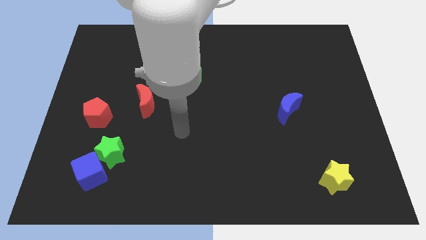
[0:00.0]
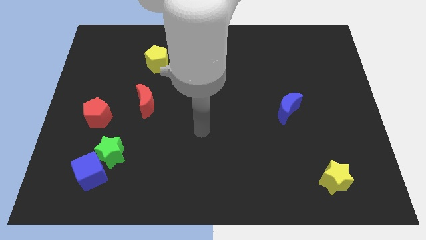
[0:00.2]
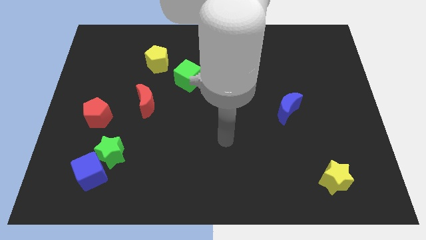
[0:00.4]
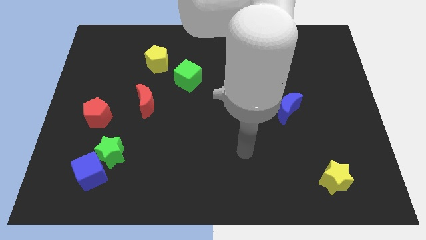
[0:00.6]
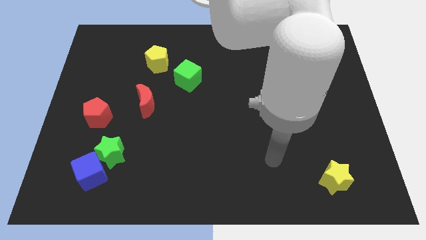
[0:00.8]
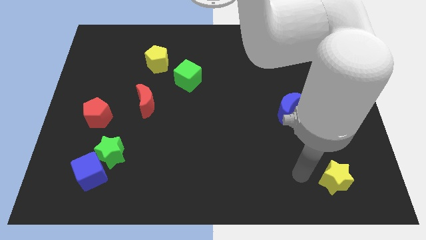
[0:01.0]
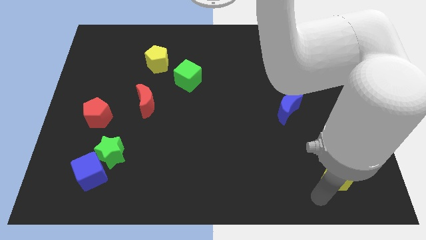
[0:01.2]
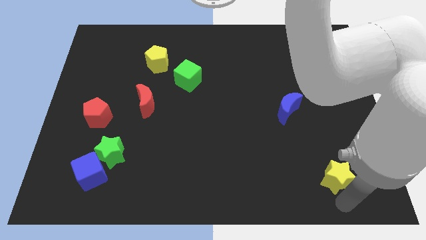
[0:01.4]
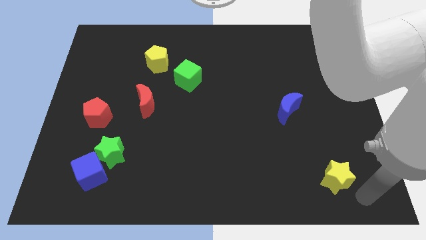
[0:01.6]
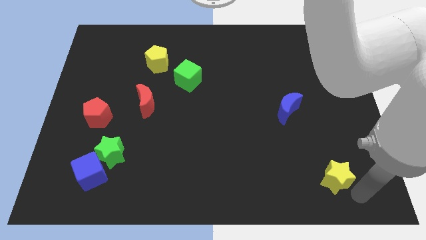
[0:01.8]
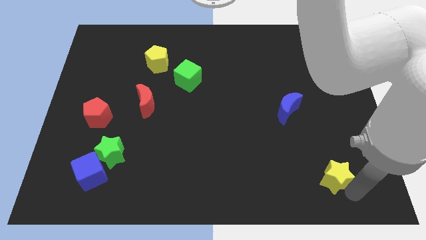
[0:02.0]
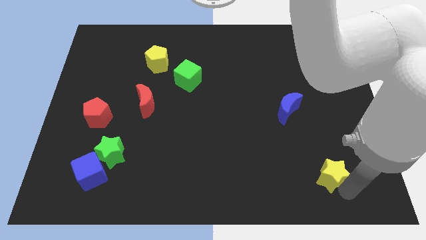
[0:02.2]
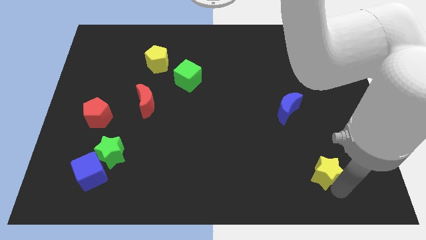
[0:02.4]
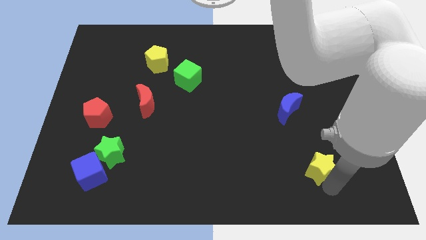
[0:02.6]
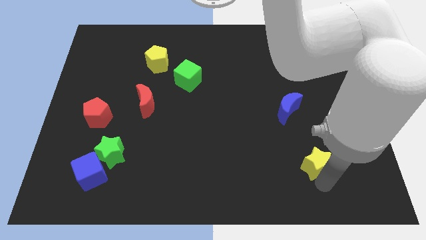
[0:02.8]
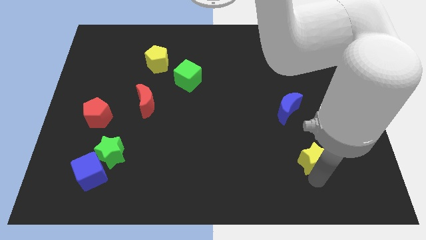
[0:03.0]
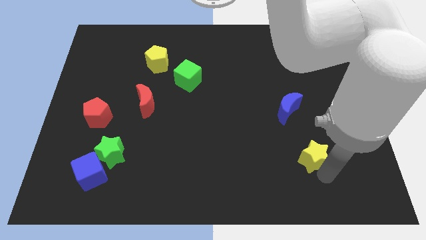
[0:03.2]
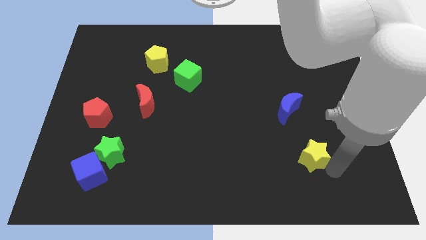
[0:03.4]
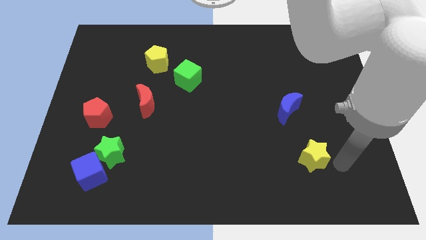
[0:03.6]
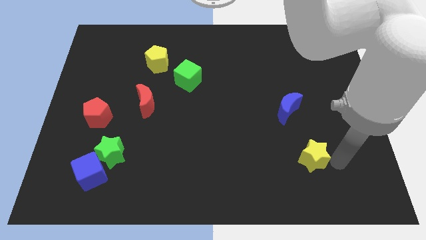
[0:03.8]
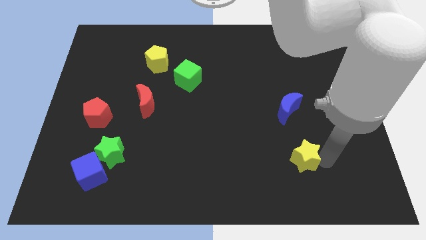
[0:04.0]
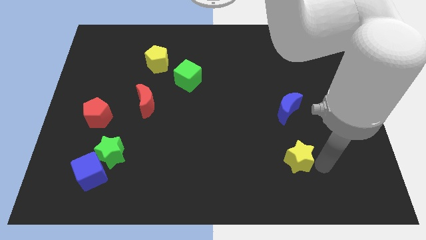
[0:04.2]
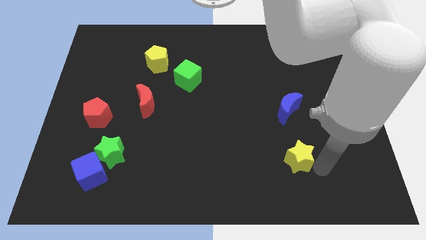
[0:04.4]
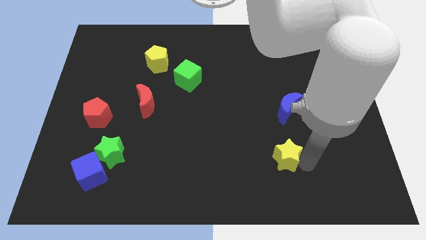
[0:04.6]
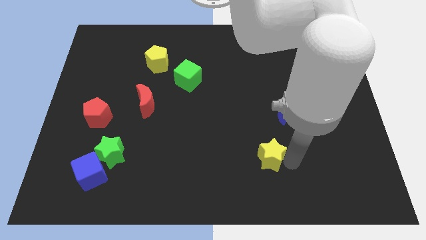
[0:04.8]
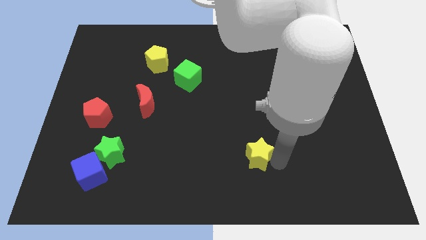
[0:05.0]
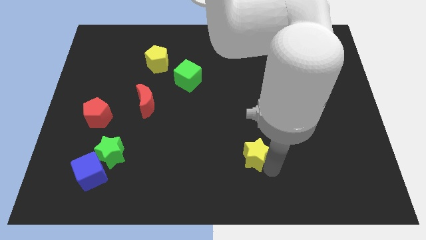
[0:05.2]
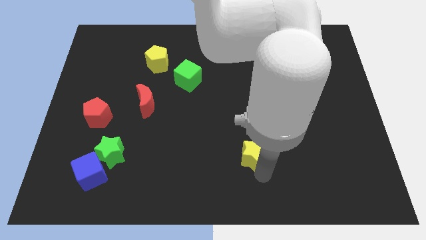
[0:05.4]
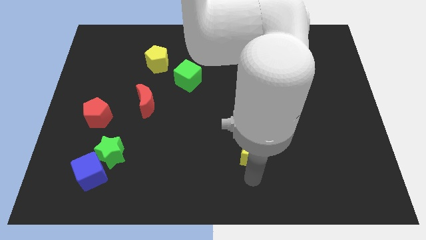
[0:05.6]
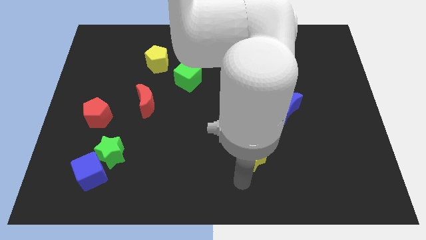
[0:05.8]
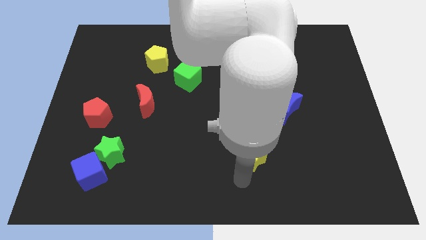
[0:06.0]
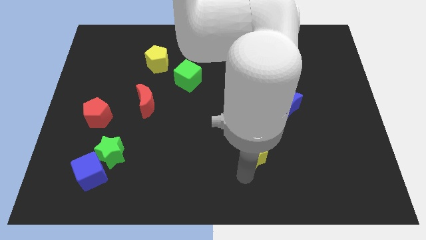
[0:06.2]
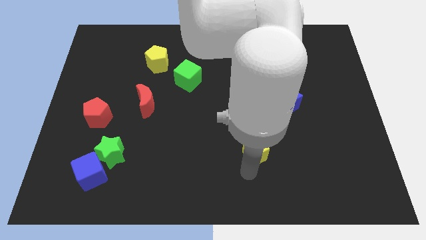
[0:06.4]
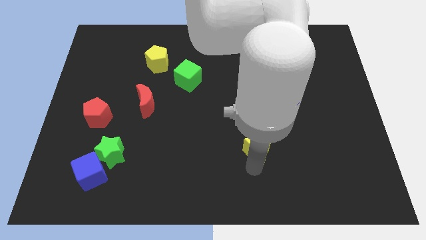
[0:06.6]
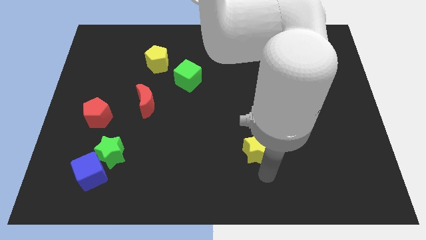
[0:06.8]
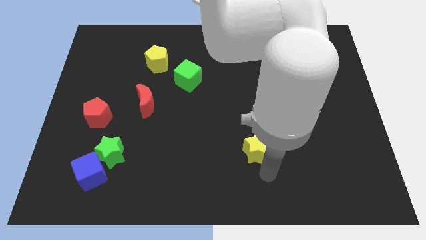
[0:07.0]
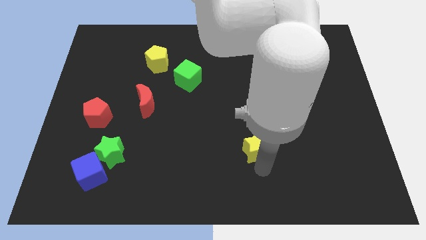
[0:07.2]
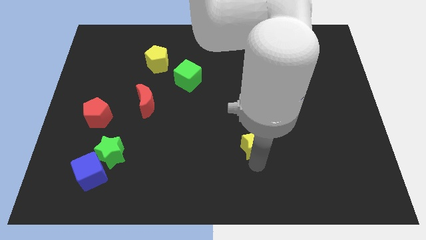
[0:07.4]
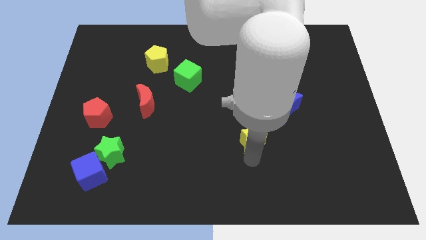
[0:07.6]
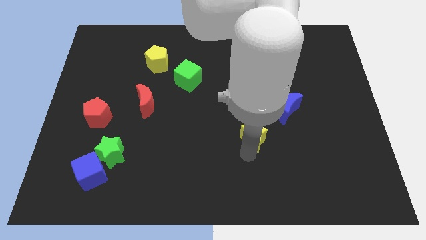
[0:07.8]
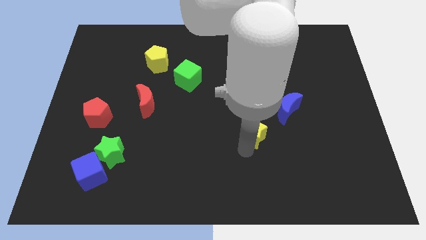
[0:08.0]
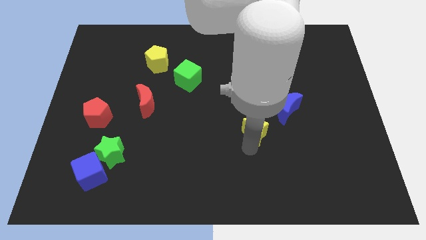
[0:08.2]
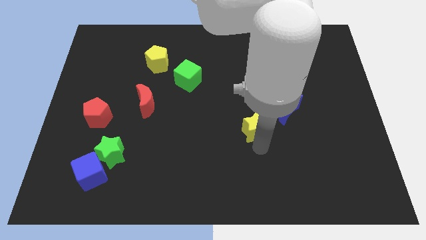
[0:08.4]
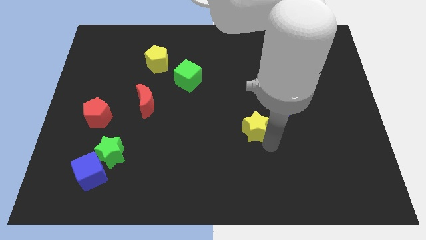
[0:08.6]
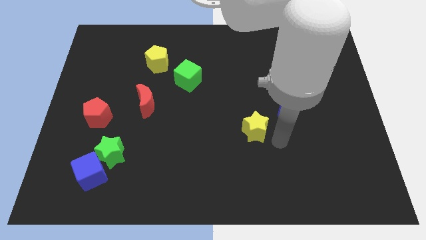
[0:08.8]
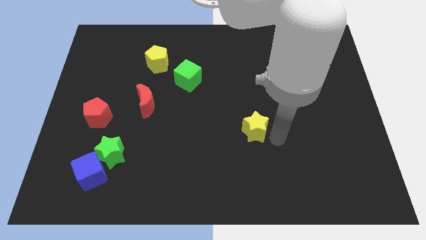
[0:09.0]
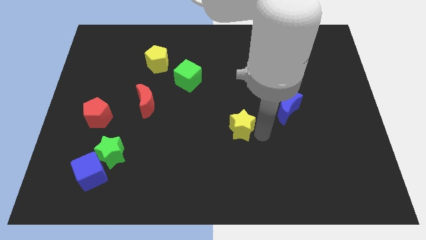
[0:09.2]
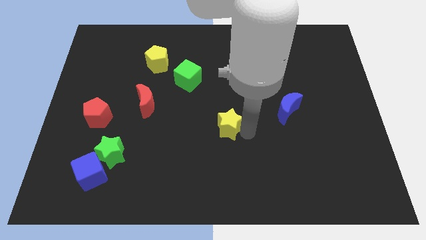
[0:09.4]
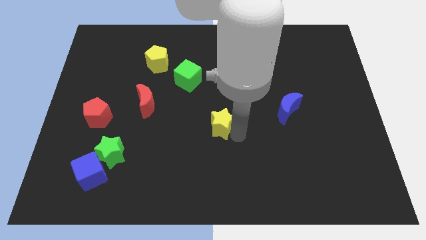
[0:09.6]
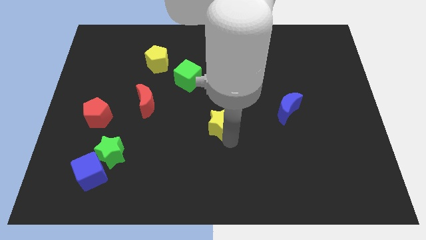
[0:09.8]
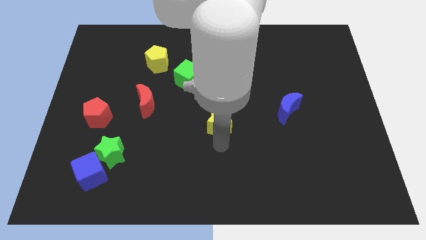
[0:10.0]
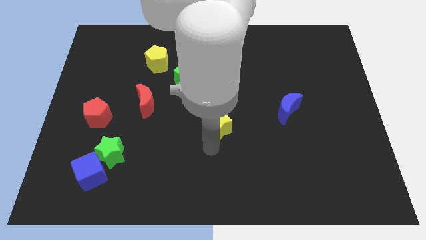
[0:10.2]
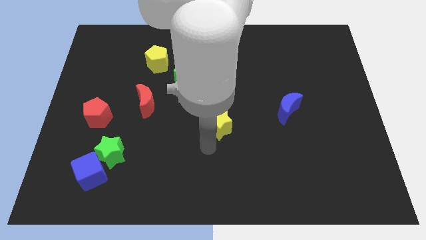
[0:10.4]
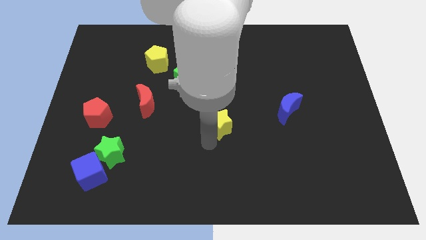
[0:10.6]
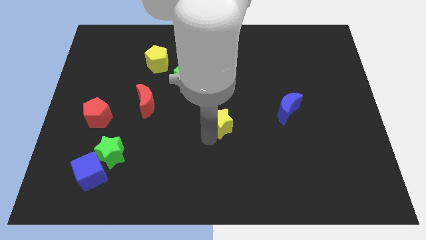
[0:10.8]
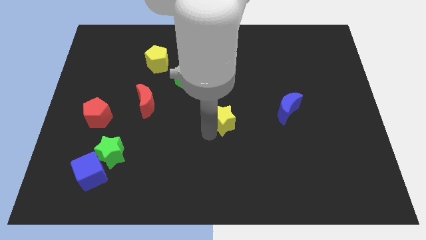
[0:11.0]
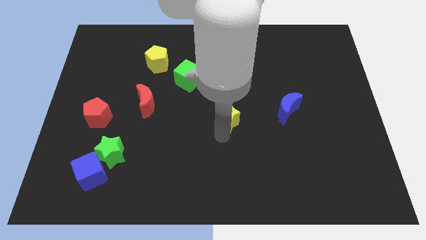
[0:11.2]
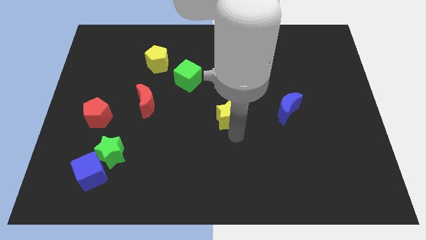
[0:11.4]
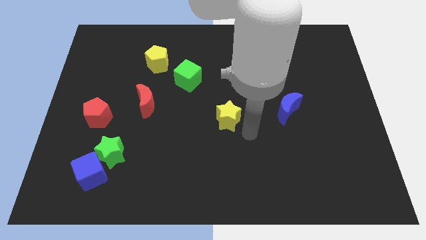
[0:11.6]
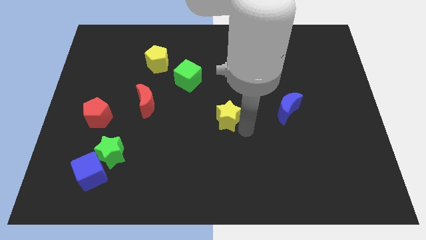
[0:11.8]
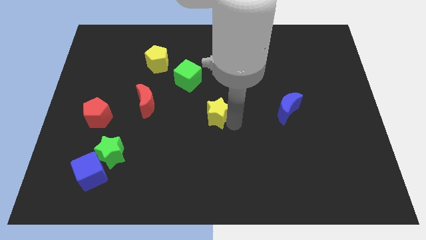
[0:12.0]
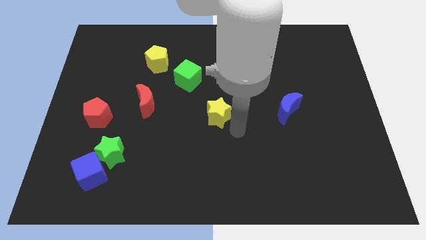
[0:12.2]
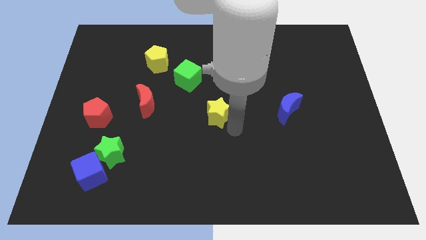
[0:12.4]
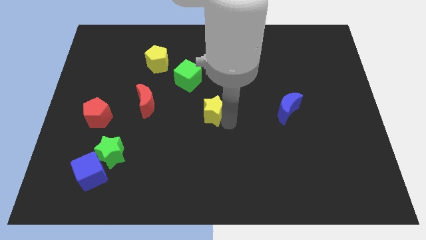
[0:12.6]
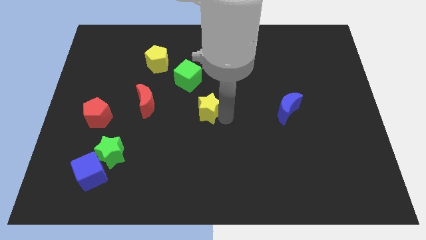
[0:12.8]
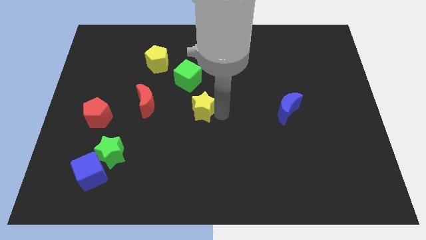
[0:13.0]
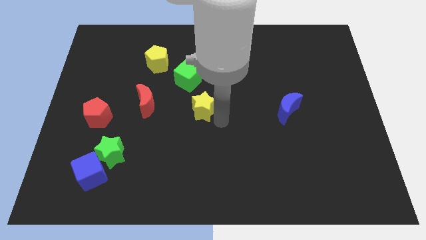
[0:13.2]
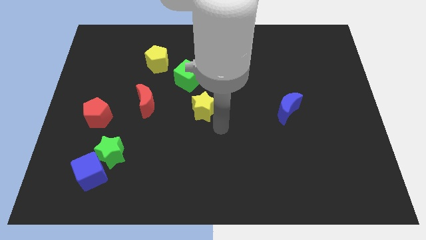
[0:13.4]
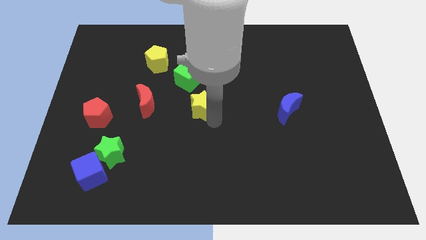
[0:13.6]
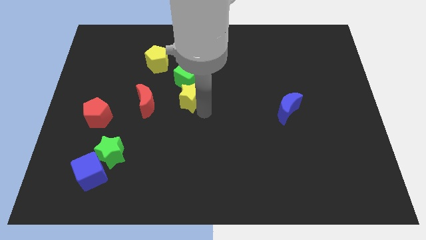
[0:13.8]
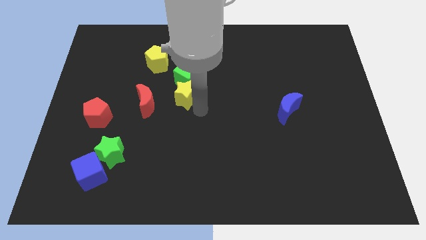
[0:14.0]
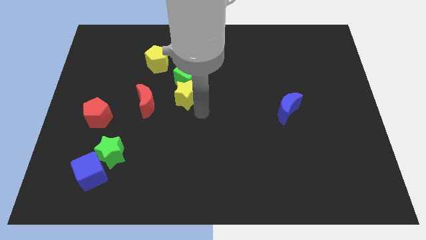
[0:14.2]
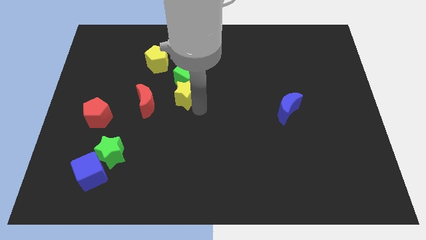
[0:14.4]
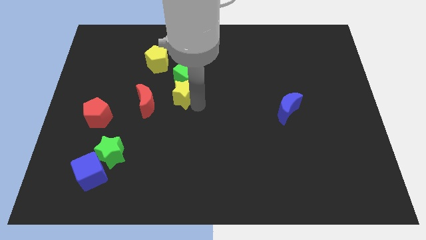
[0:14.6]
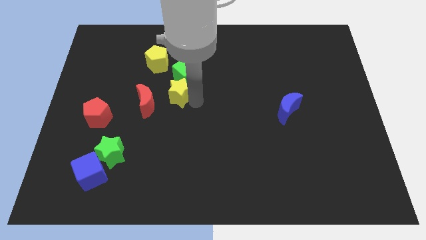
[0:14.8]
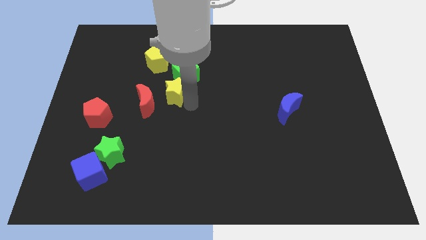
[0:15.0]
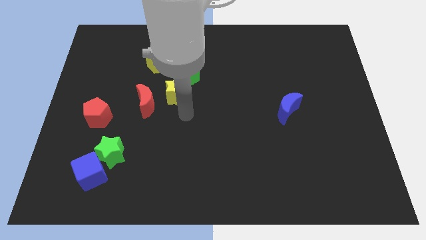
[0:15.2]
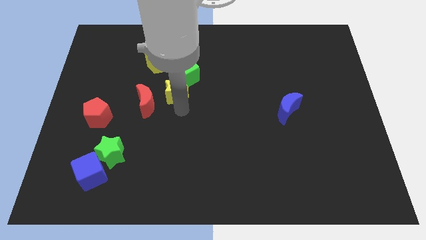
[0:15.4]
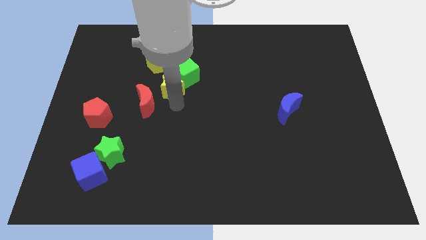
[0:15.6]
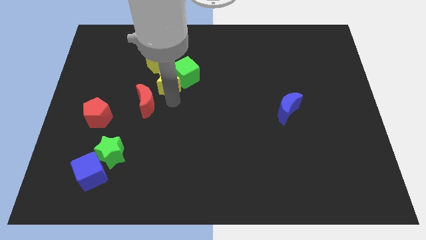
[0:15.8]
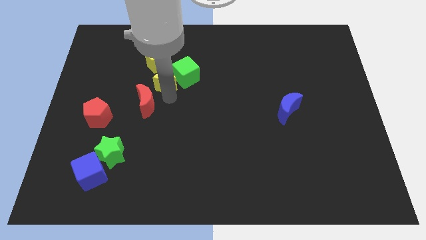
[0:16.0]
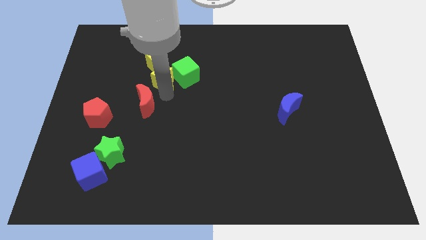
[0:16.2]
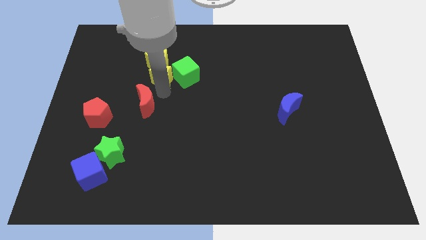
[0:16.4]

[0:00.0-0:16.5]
slide the yellow star to the yellow pentagon
